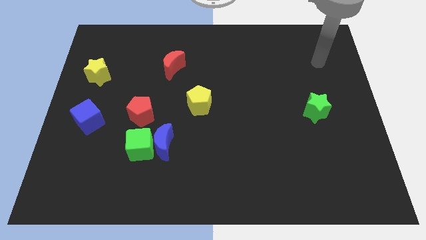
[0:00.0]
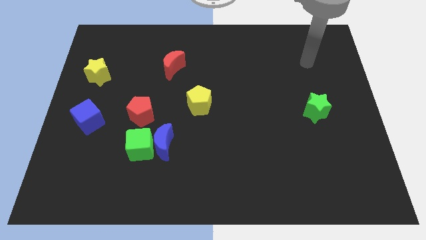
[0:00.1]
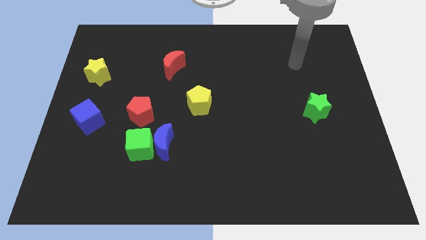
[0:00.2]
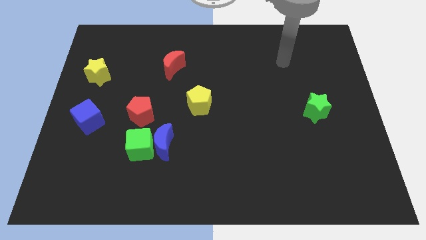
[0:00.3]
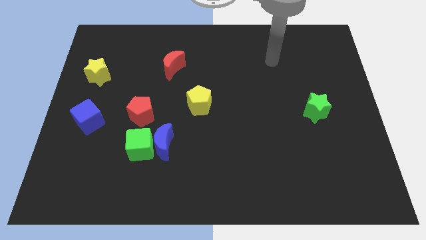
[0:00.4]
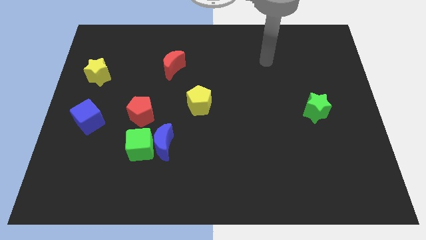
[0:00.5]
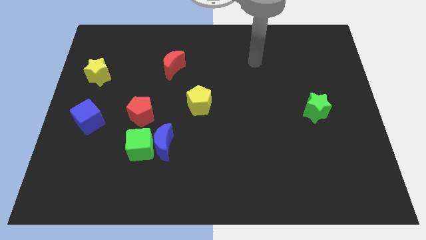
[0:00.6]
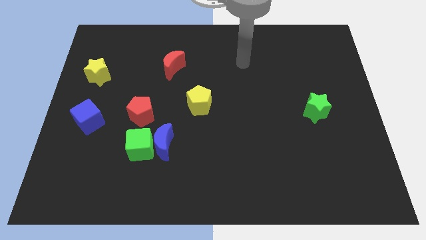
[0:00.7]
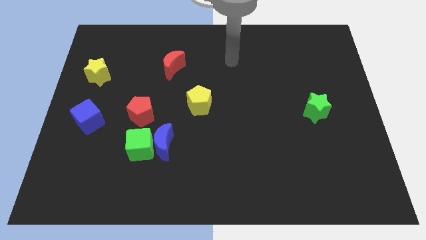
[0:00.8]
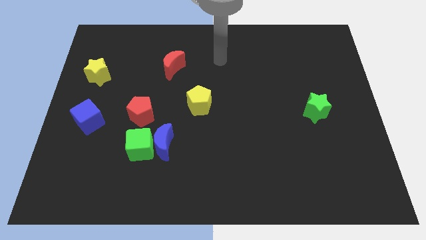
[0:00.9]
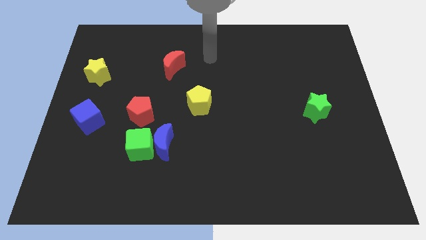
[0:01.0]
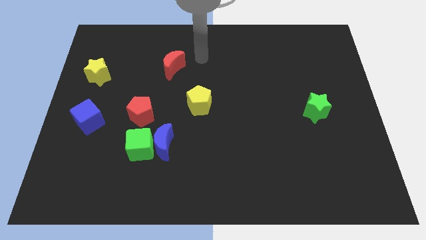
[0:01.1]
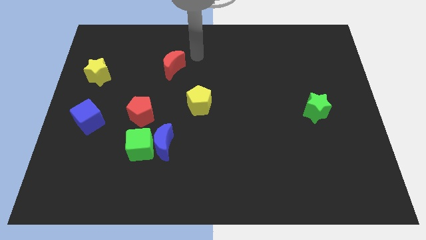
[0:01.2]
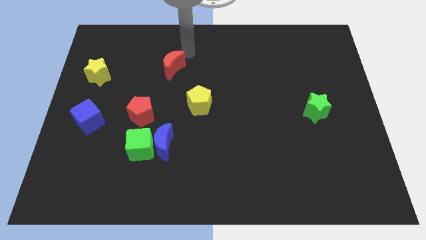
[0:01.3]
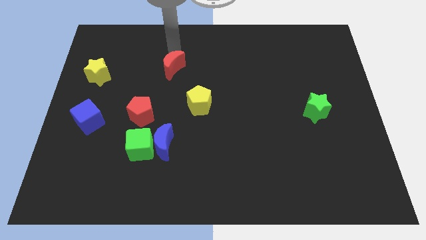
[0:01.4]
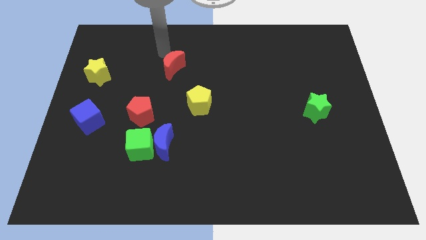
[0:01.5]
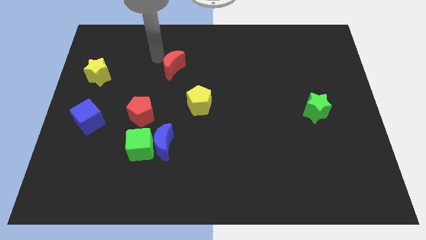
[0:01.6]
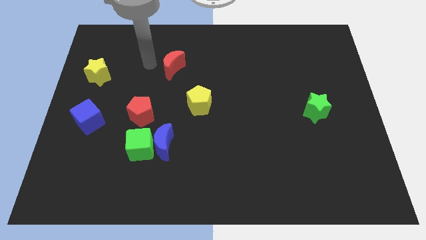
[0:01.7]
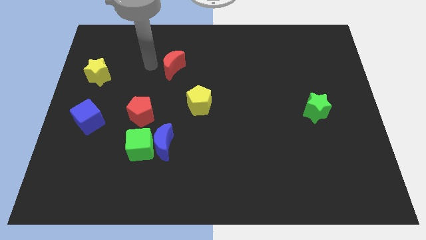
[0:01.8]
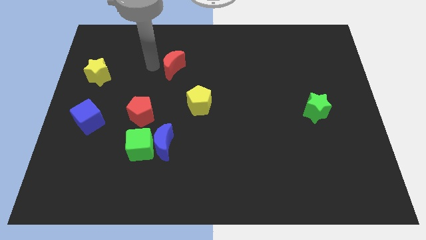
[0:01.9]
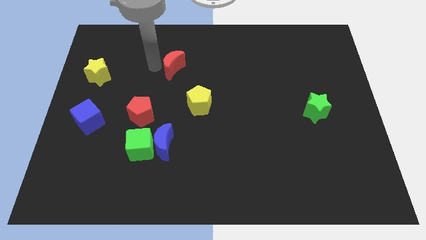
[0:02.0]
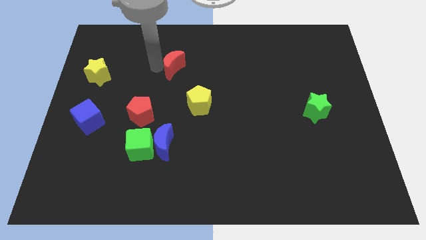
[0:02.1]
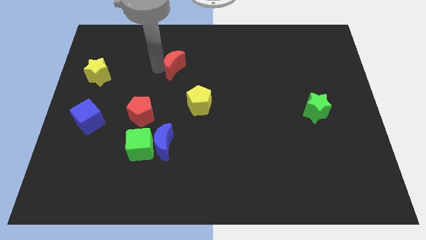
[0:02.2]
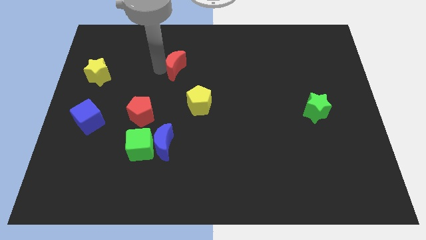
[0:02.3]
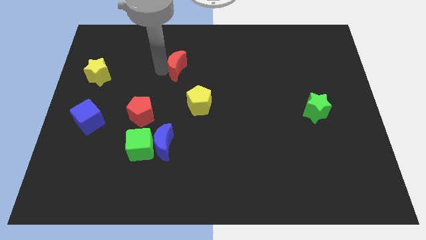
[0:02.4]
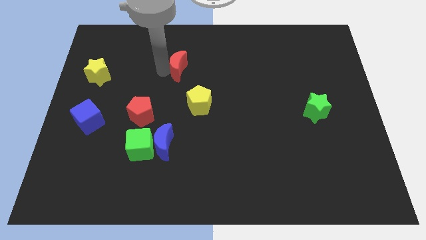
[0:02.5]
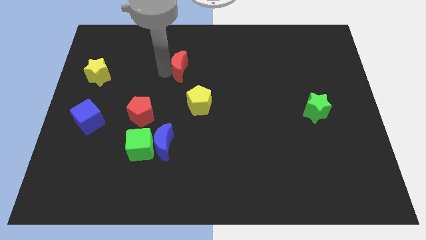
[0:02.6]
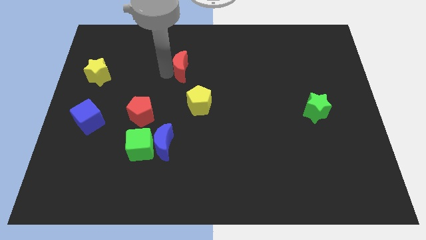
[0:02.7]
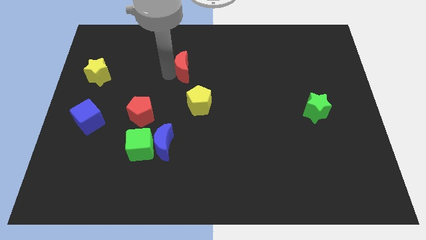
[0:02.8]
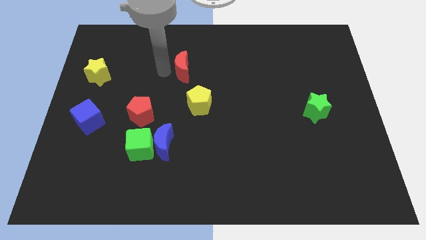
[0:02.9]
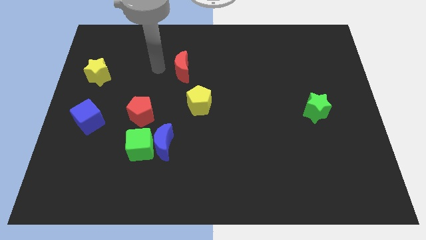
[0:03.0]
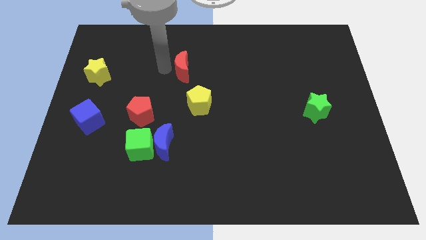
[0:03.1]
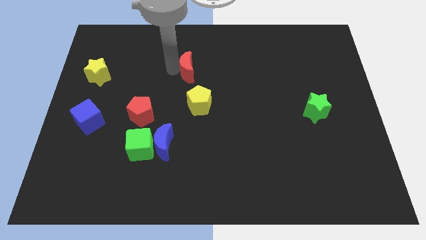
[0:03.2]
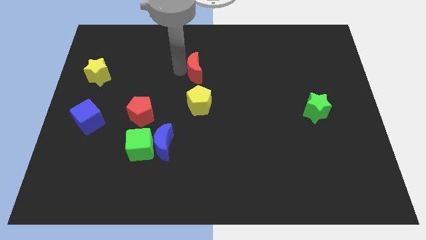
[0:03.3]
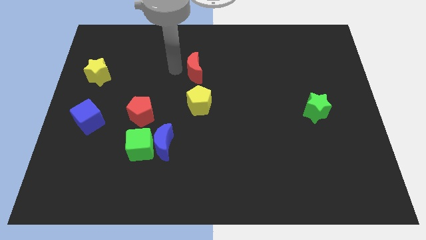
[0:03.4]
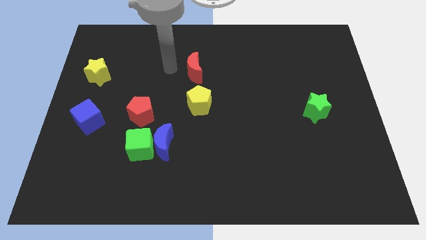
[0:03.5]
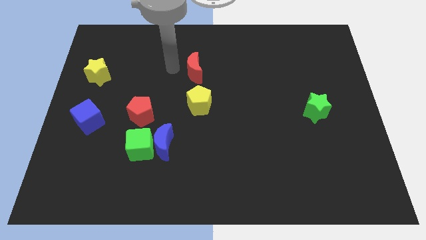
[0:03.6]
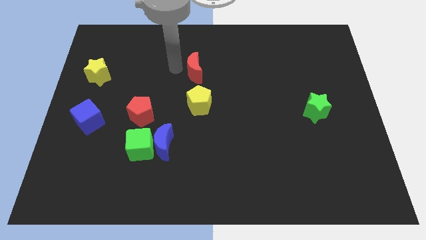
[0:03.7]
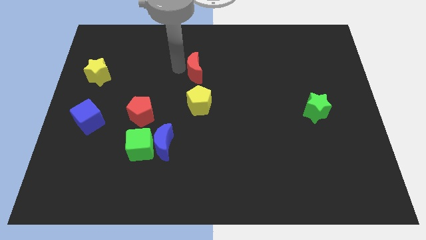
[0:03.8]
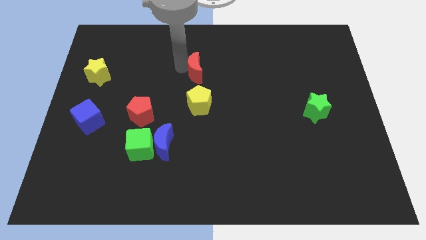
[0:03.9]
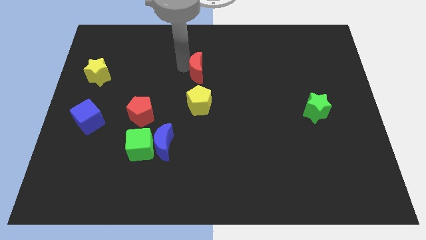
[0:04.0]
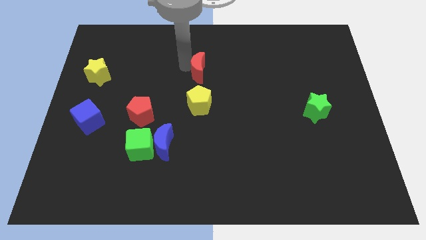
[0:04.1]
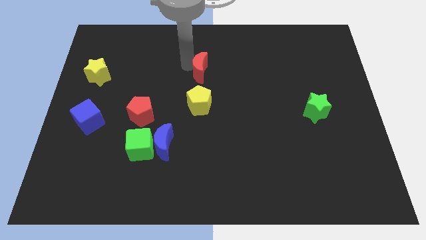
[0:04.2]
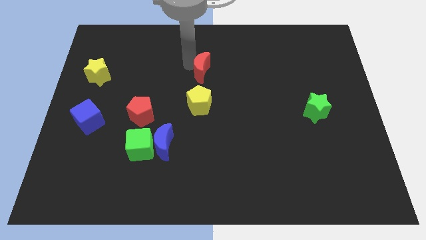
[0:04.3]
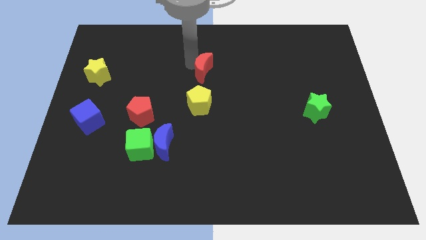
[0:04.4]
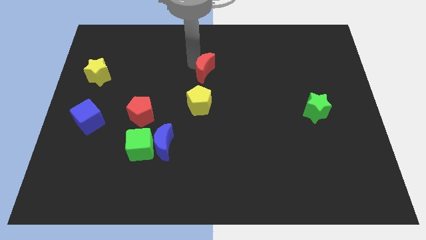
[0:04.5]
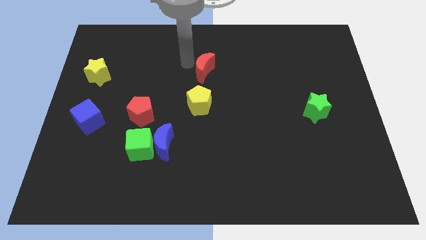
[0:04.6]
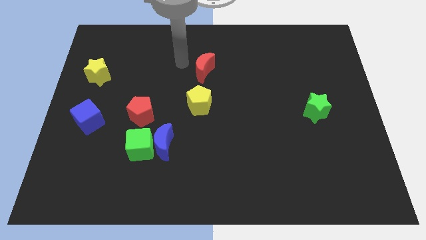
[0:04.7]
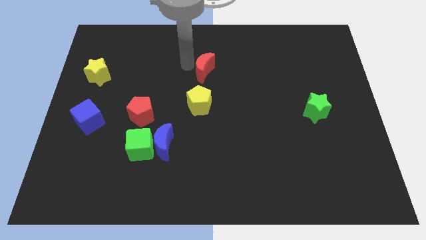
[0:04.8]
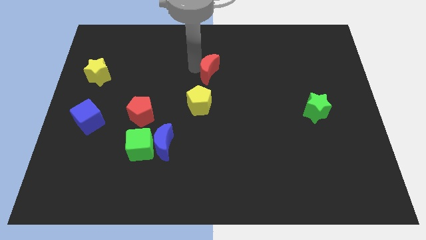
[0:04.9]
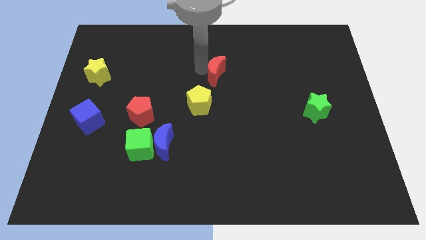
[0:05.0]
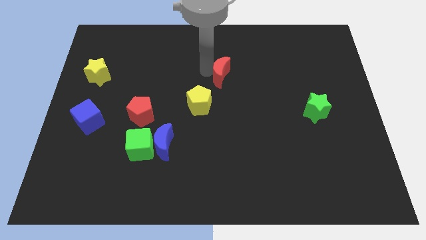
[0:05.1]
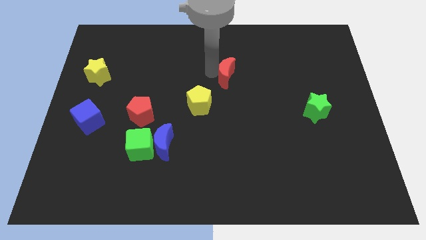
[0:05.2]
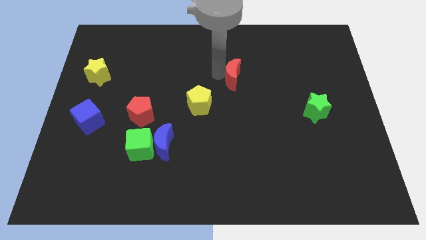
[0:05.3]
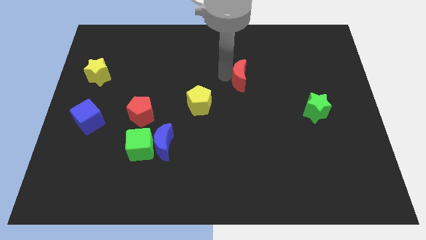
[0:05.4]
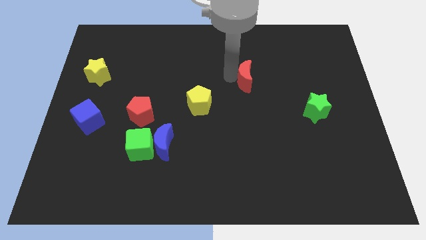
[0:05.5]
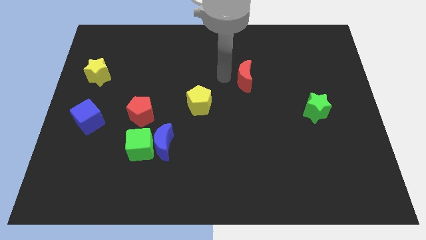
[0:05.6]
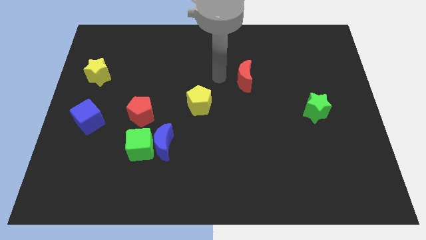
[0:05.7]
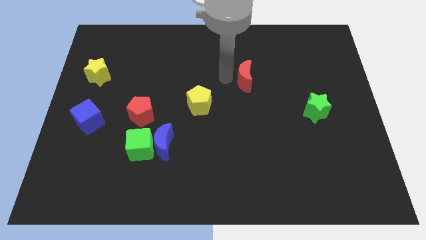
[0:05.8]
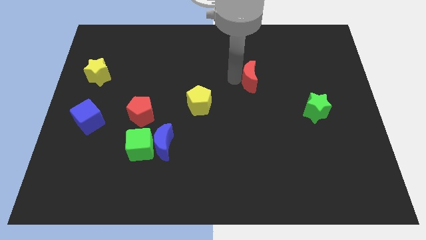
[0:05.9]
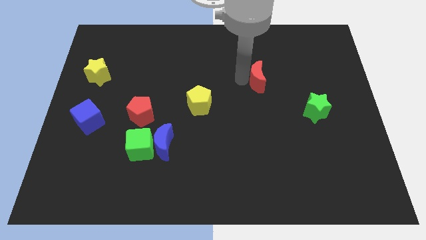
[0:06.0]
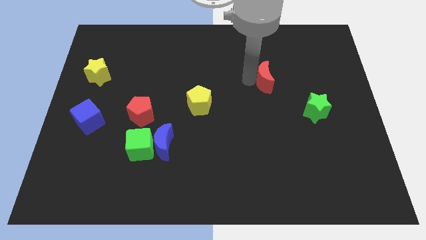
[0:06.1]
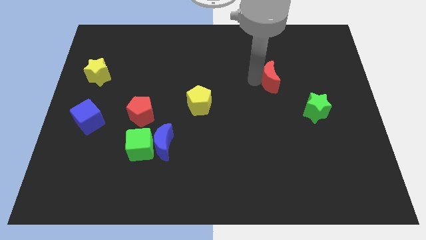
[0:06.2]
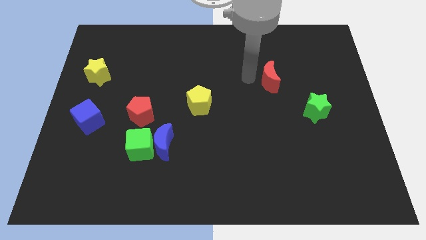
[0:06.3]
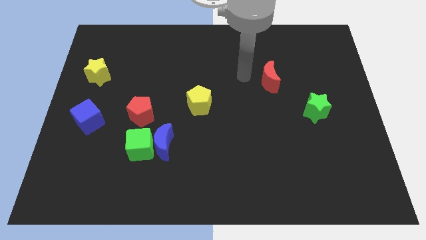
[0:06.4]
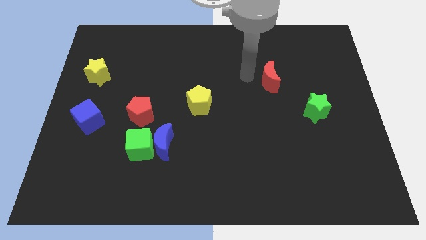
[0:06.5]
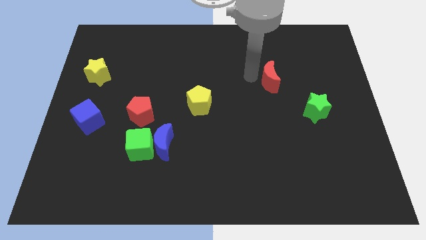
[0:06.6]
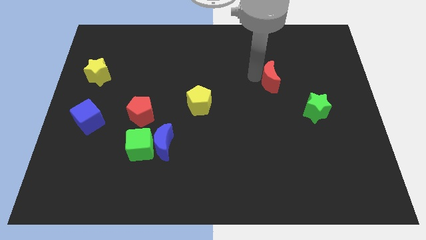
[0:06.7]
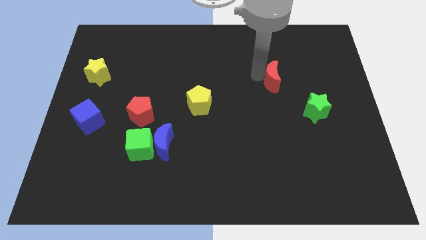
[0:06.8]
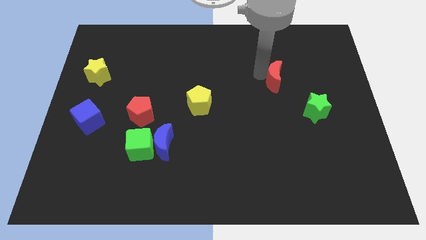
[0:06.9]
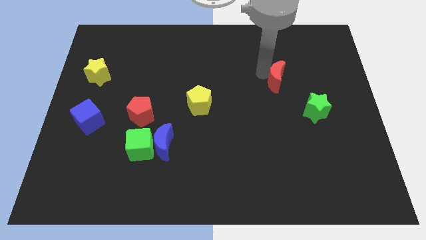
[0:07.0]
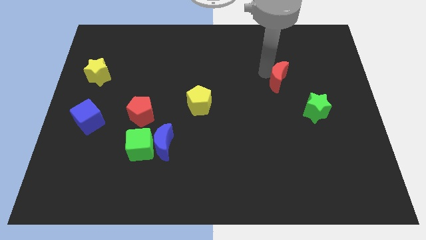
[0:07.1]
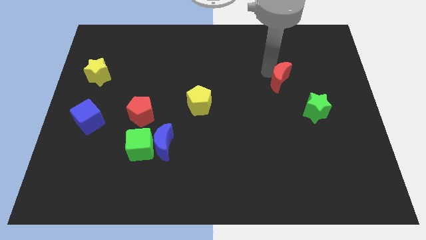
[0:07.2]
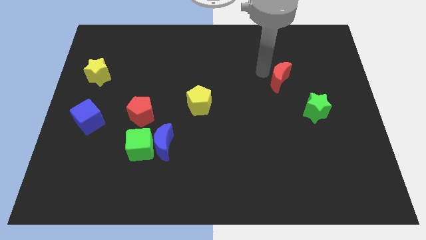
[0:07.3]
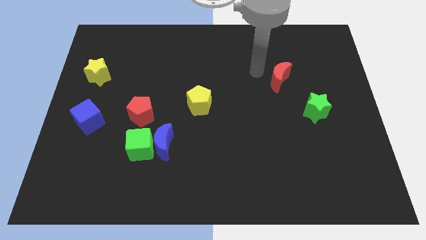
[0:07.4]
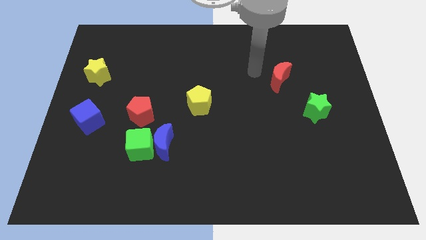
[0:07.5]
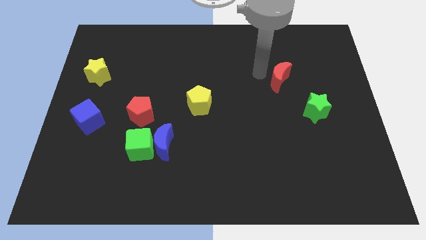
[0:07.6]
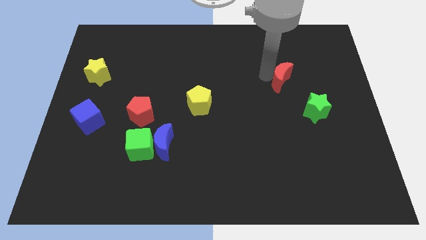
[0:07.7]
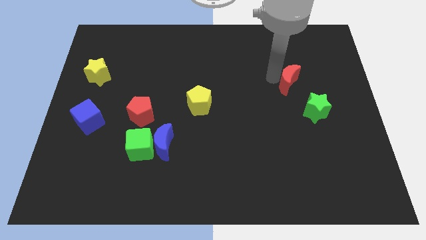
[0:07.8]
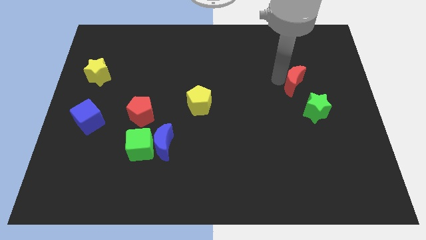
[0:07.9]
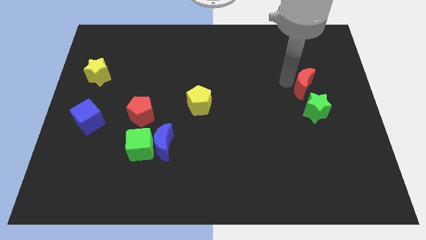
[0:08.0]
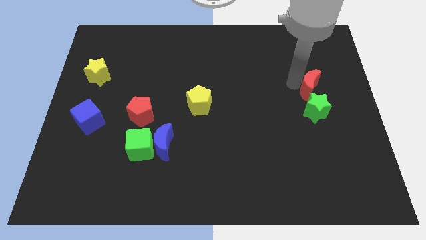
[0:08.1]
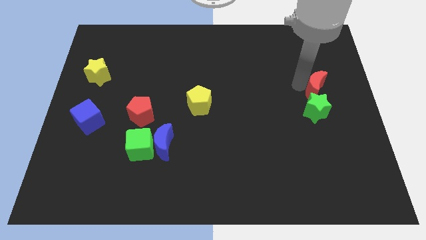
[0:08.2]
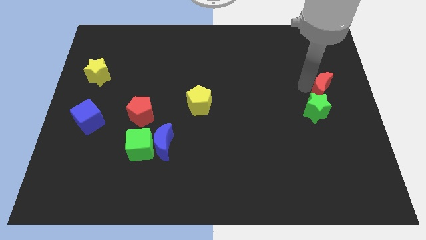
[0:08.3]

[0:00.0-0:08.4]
slide the red moon to the right side of the board
